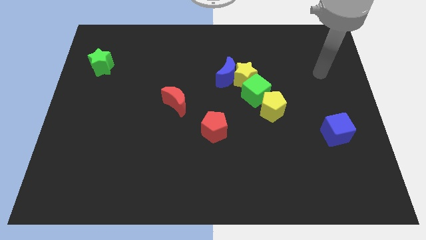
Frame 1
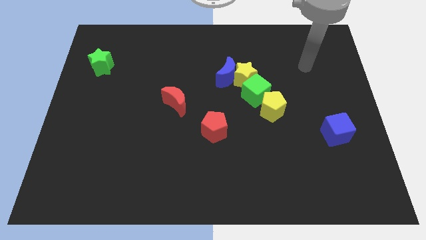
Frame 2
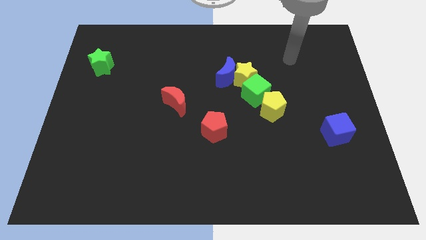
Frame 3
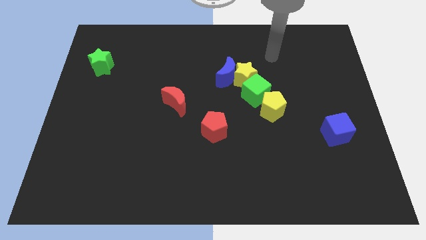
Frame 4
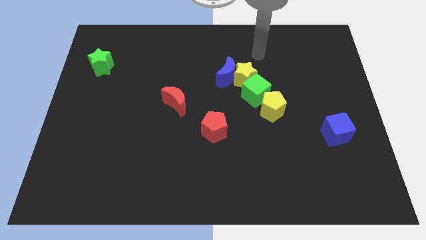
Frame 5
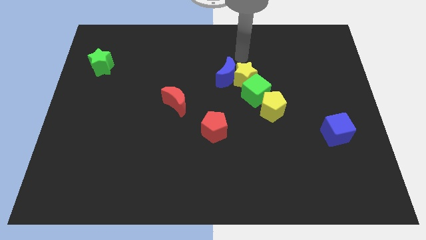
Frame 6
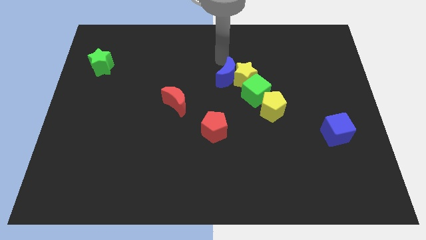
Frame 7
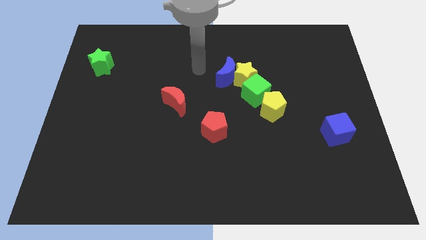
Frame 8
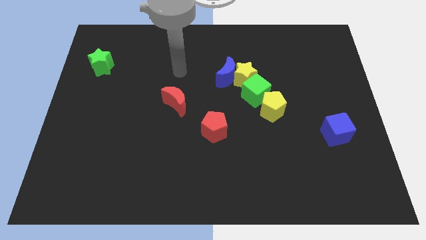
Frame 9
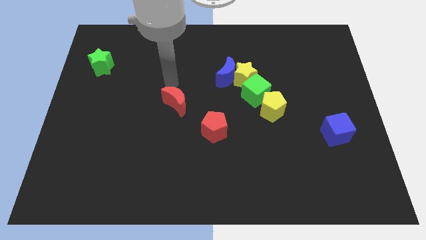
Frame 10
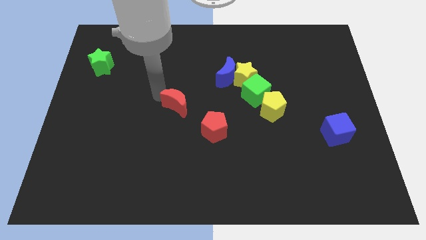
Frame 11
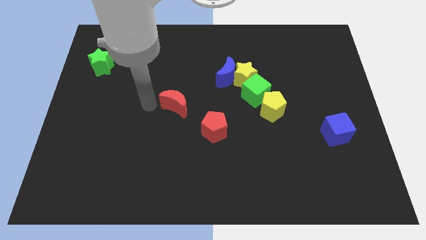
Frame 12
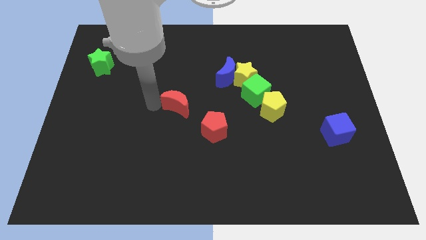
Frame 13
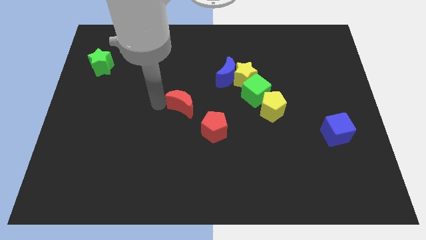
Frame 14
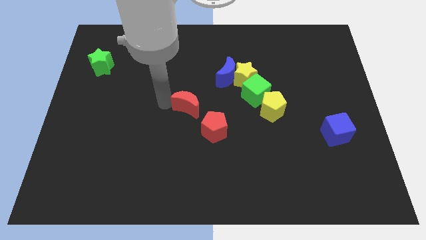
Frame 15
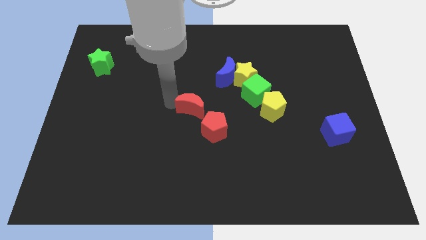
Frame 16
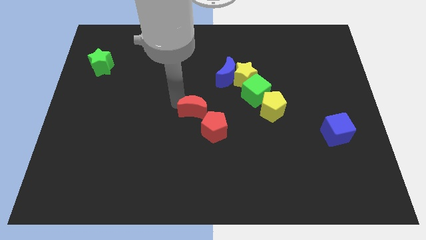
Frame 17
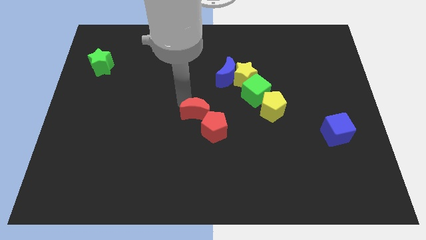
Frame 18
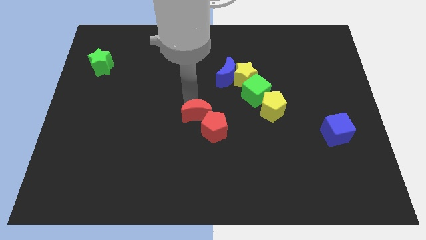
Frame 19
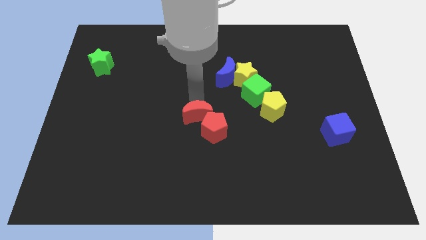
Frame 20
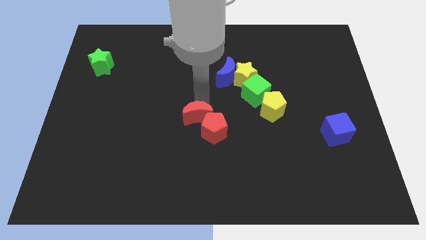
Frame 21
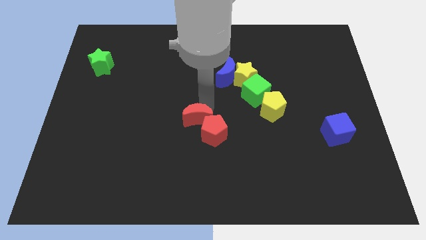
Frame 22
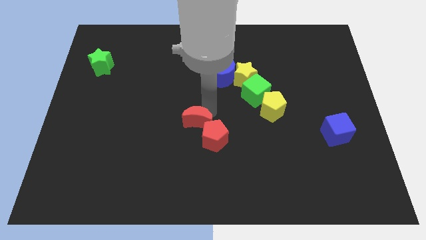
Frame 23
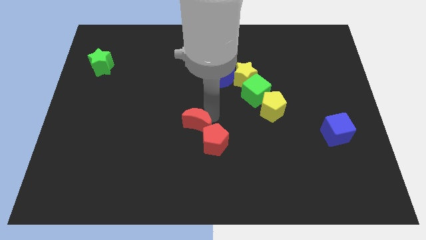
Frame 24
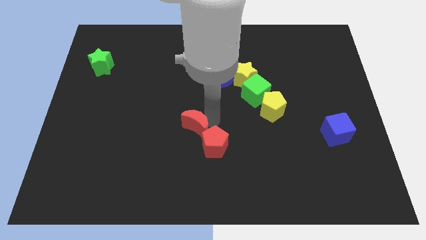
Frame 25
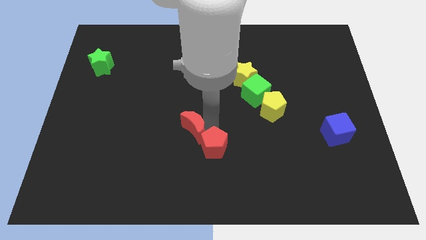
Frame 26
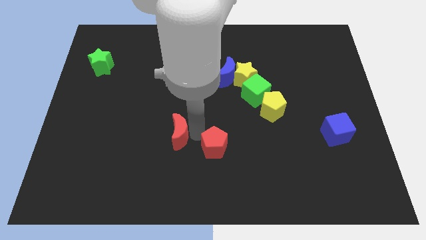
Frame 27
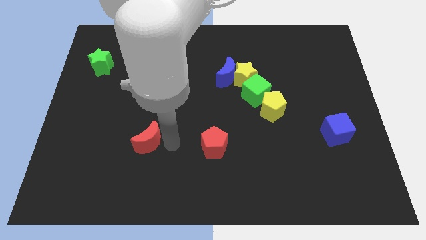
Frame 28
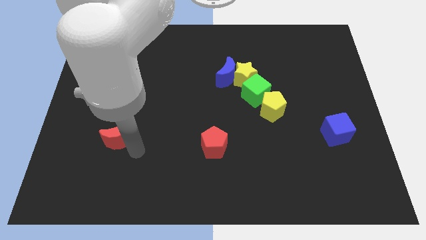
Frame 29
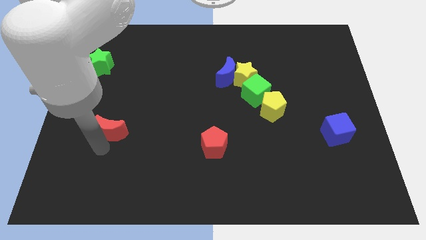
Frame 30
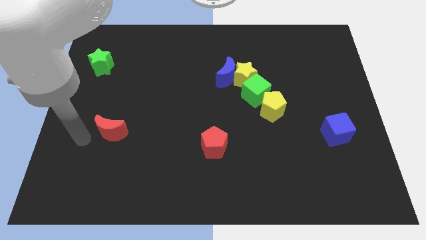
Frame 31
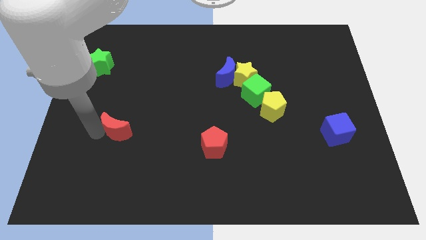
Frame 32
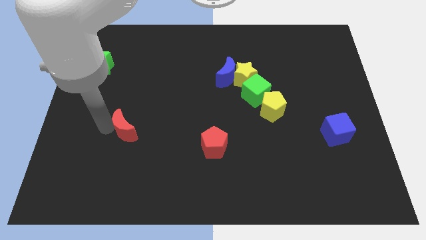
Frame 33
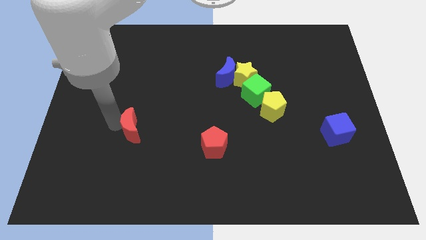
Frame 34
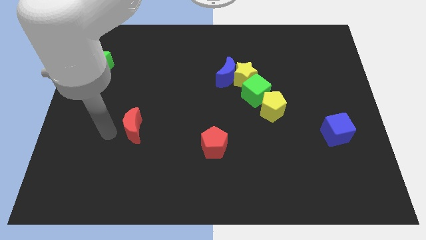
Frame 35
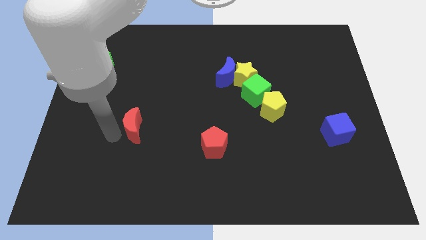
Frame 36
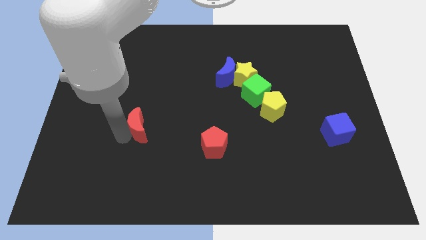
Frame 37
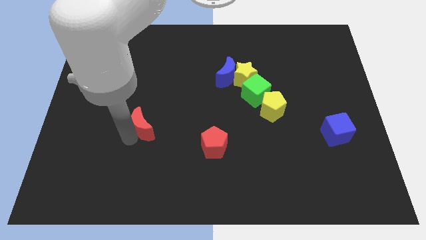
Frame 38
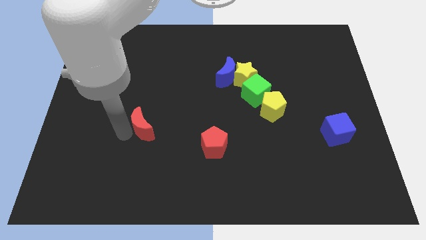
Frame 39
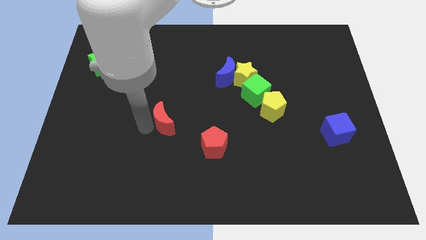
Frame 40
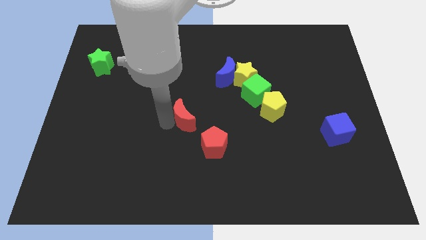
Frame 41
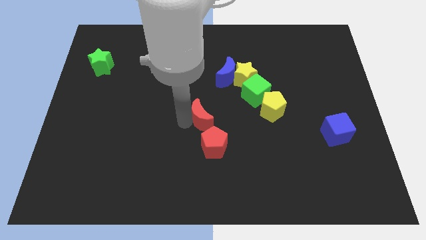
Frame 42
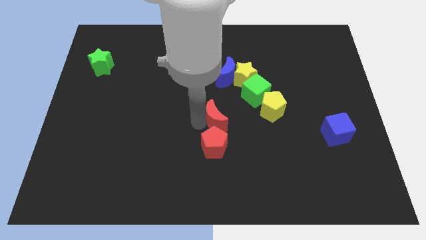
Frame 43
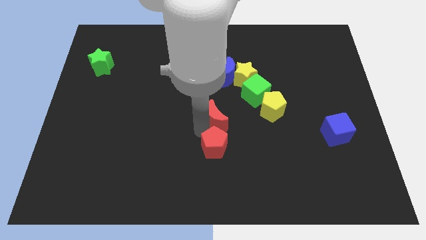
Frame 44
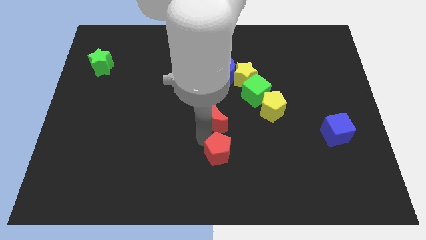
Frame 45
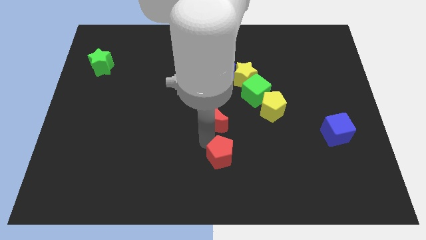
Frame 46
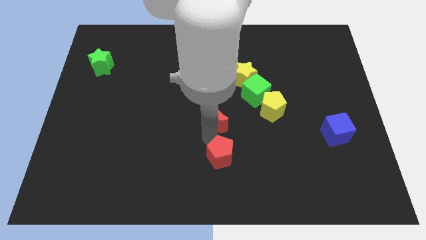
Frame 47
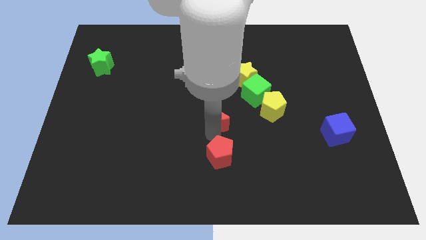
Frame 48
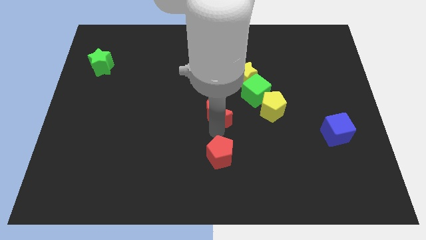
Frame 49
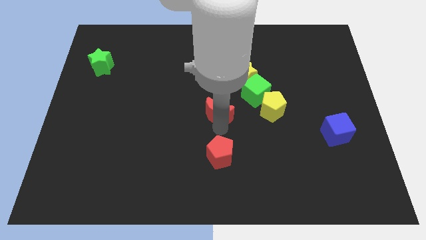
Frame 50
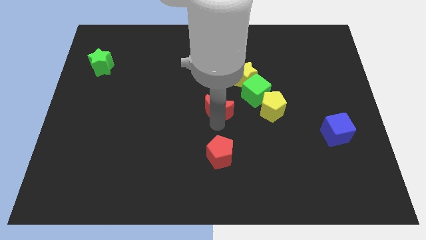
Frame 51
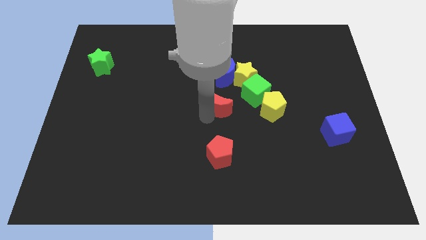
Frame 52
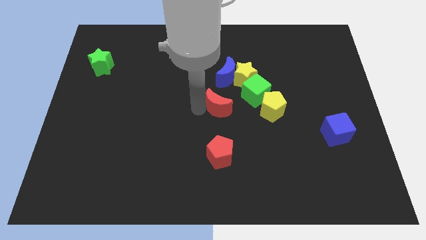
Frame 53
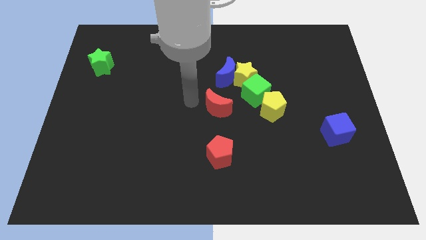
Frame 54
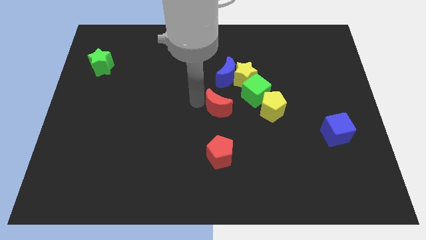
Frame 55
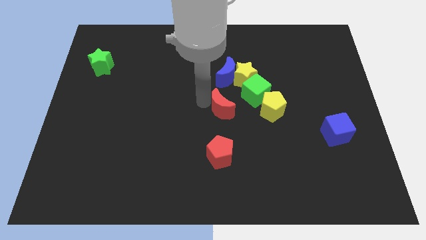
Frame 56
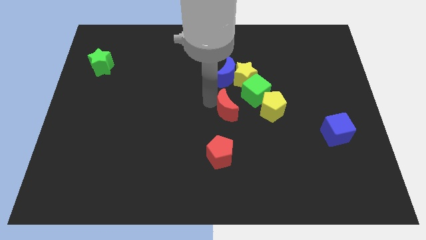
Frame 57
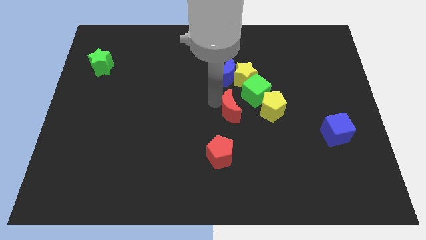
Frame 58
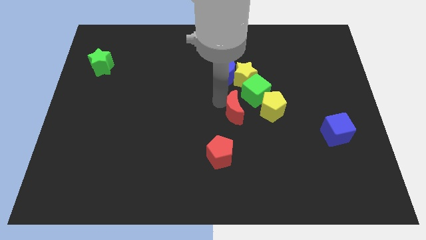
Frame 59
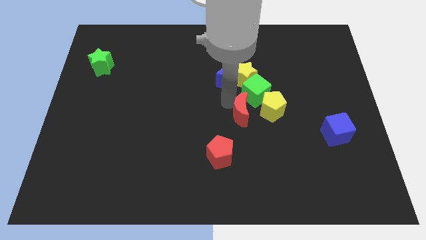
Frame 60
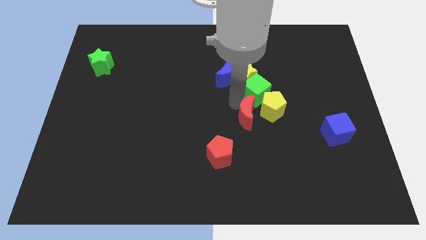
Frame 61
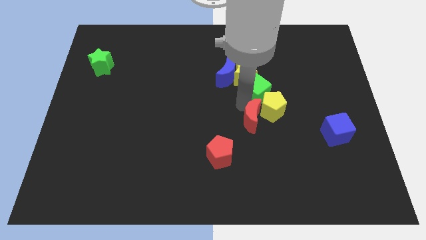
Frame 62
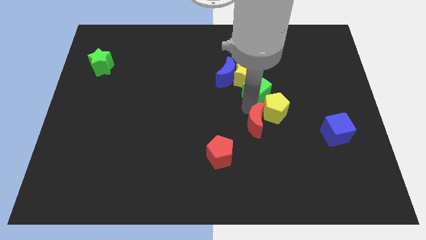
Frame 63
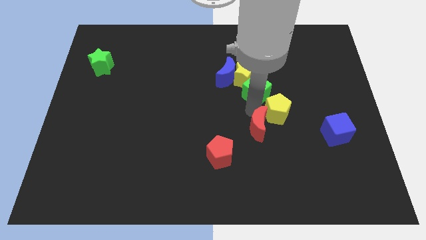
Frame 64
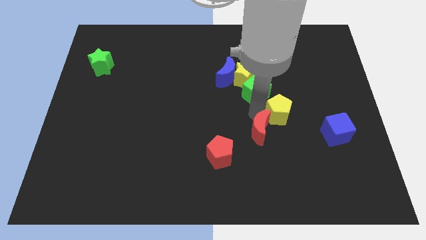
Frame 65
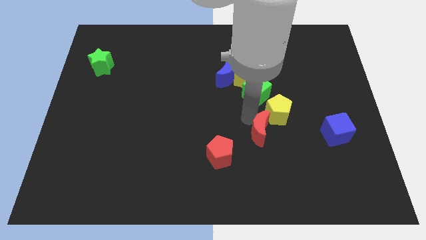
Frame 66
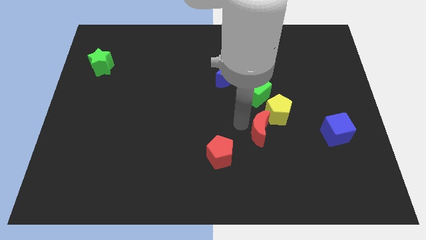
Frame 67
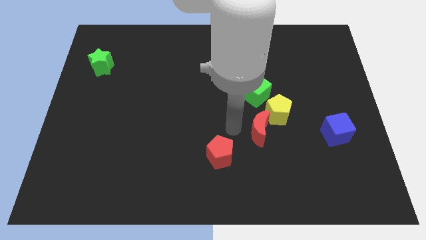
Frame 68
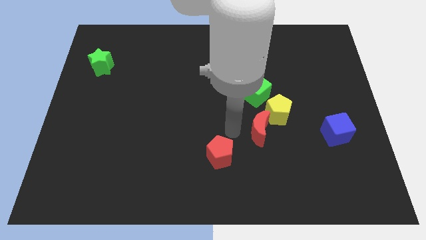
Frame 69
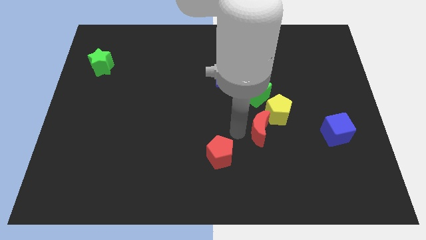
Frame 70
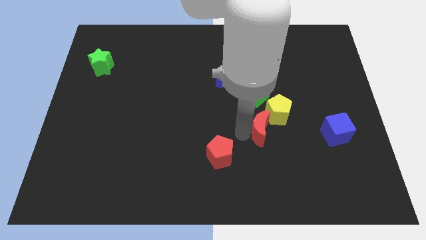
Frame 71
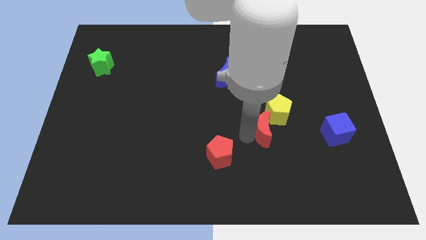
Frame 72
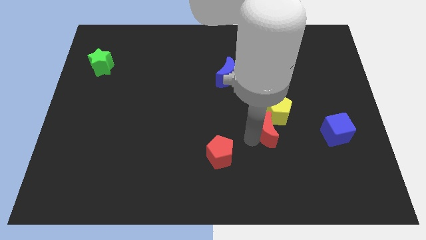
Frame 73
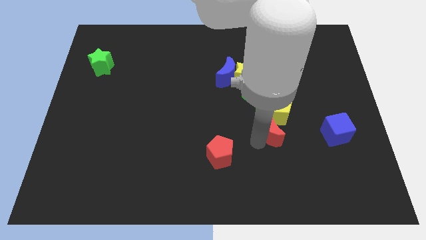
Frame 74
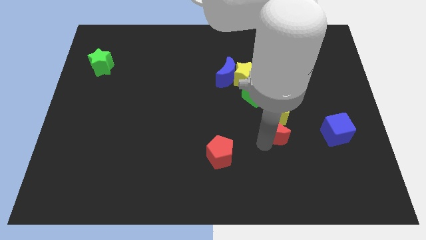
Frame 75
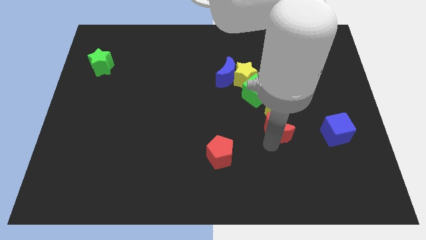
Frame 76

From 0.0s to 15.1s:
push the red moon right

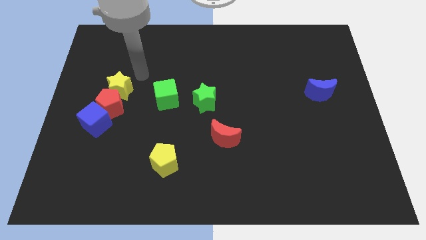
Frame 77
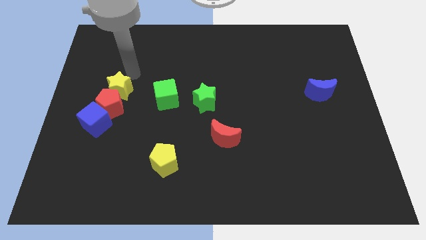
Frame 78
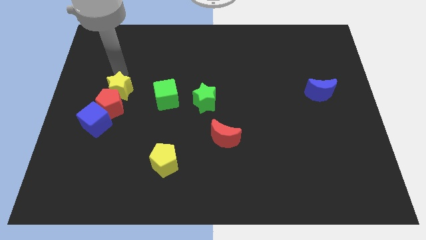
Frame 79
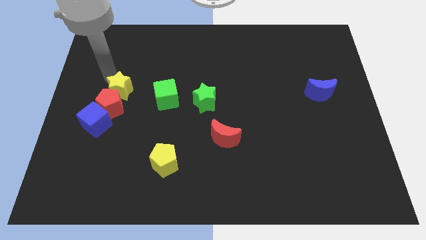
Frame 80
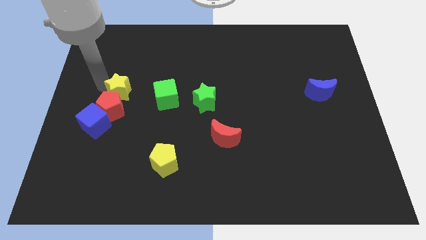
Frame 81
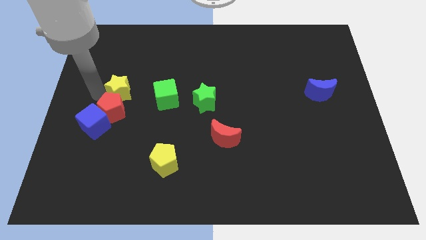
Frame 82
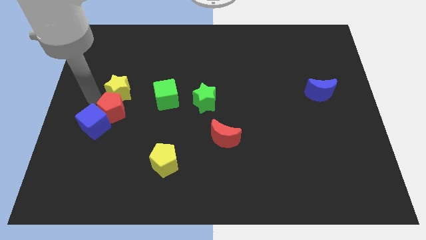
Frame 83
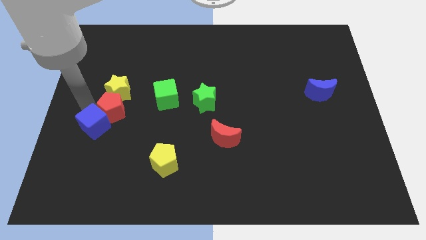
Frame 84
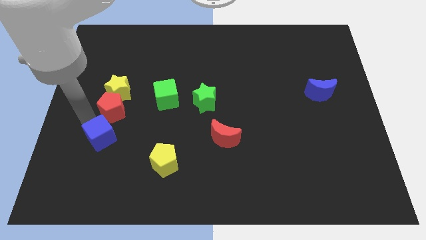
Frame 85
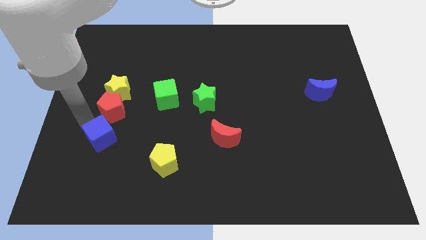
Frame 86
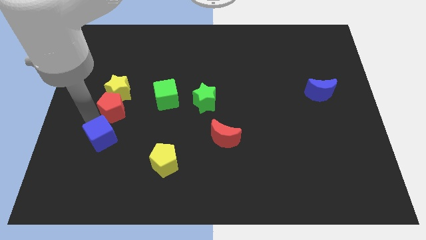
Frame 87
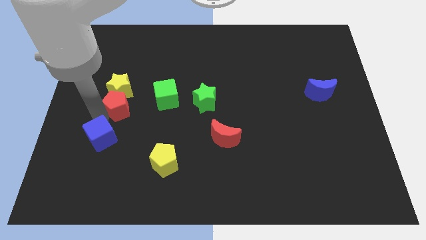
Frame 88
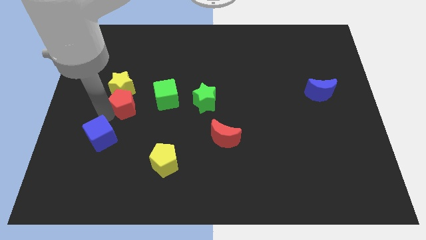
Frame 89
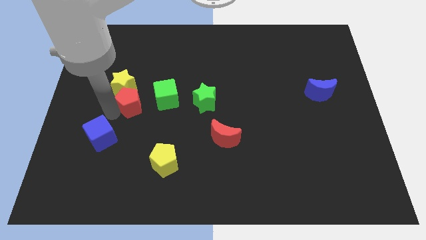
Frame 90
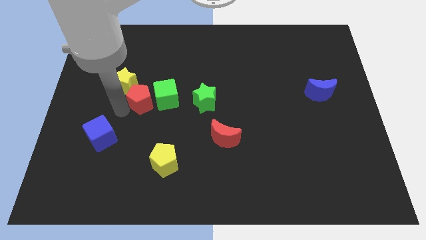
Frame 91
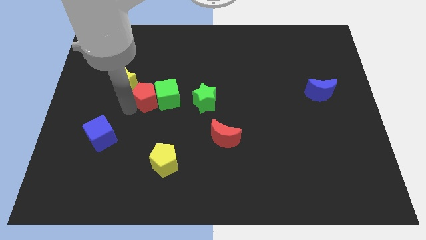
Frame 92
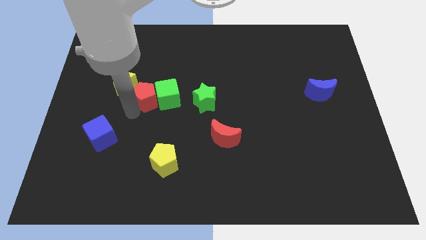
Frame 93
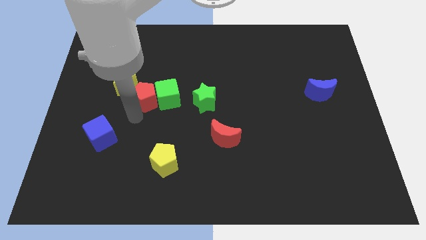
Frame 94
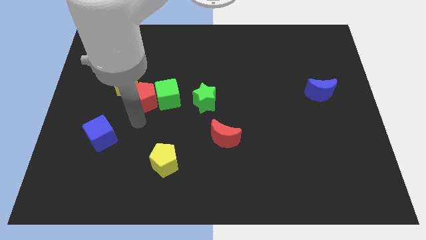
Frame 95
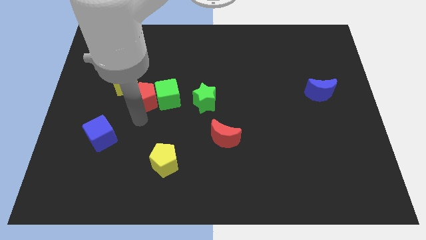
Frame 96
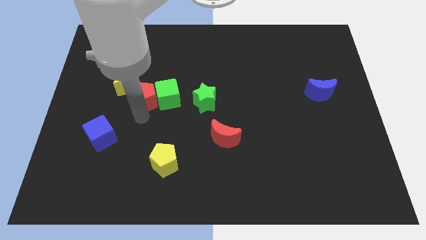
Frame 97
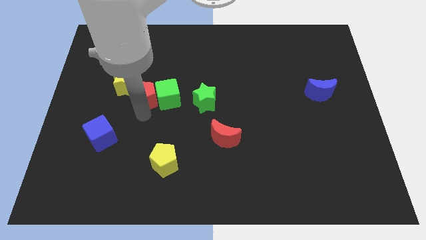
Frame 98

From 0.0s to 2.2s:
slightly push the red pentagon upwards and to the right diagonally
